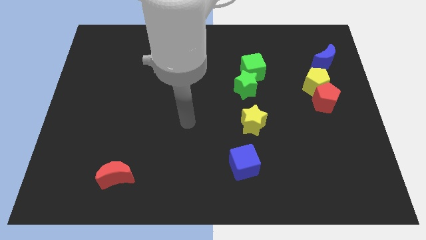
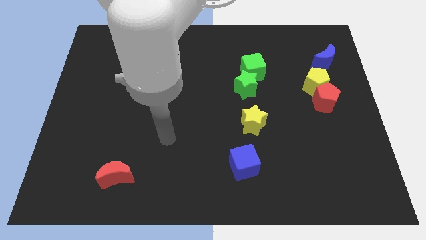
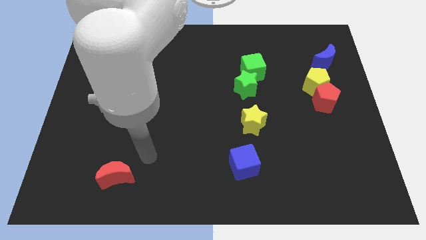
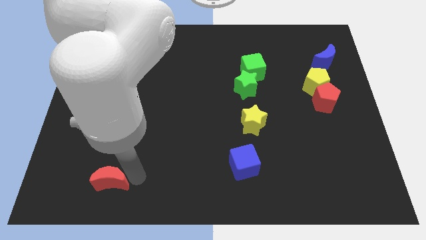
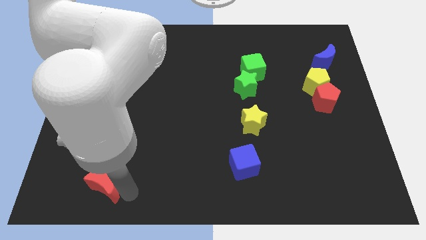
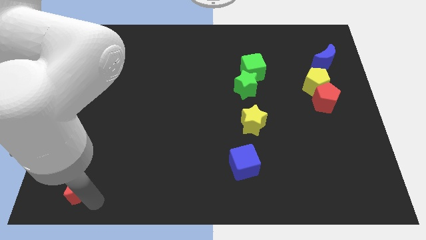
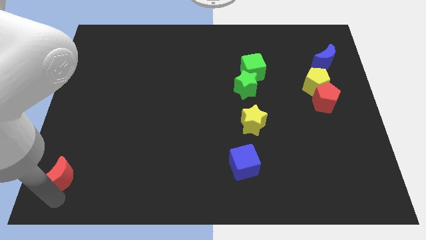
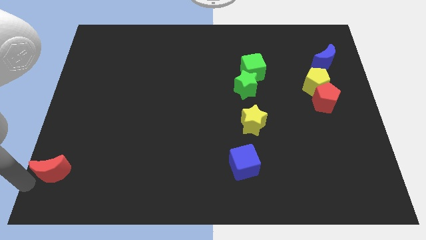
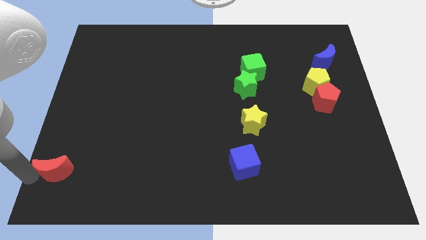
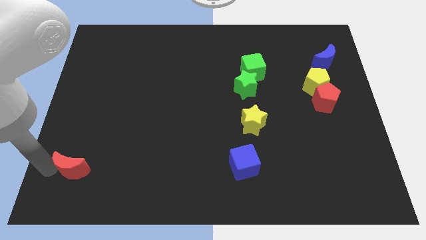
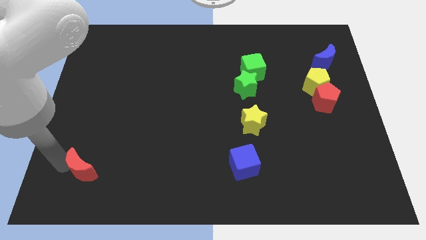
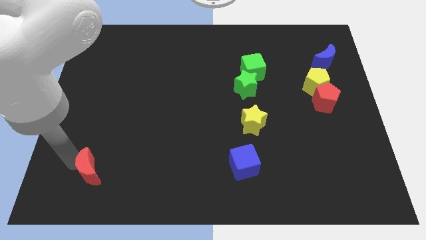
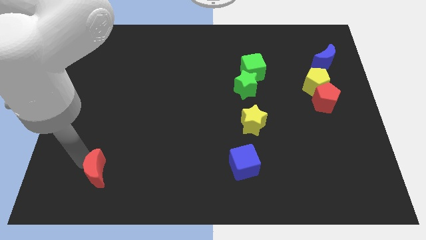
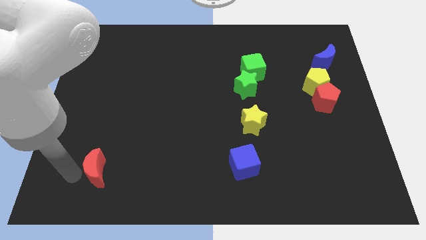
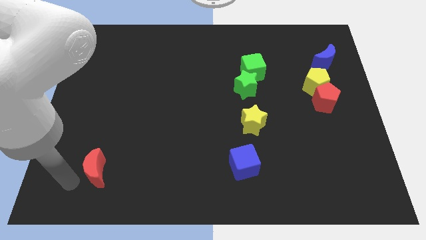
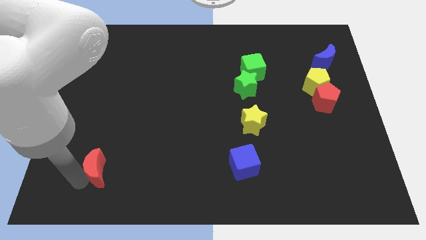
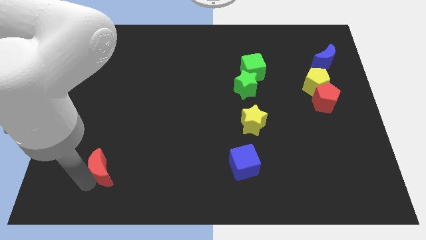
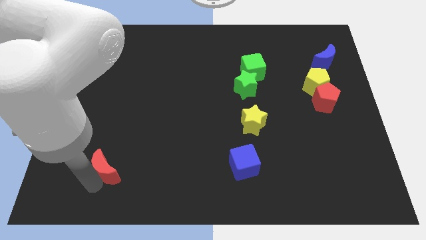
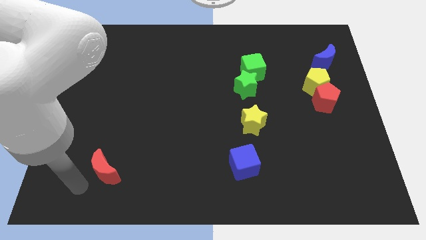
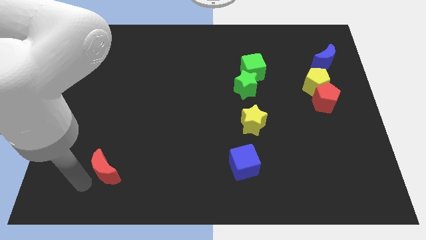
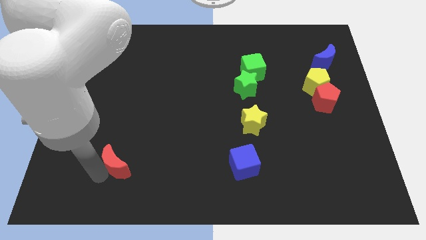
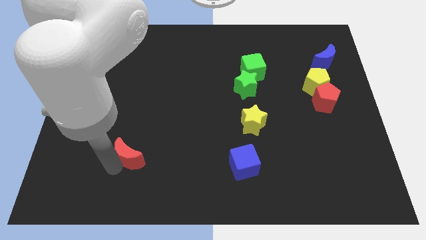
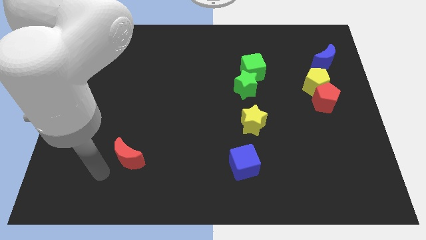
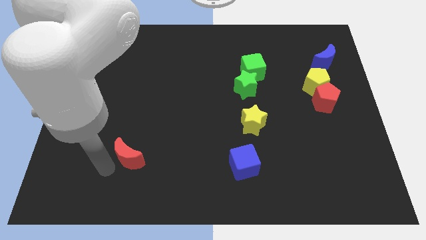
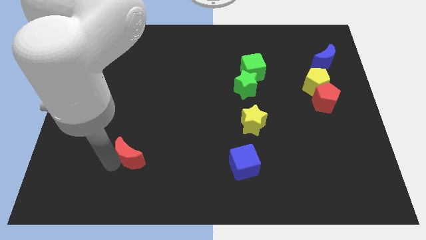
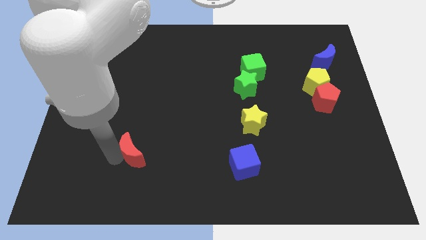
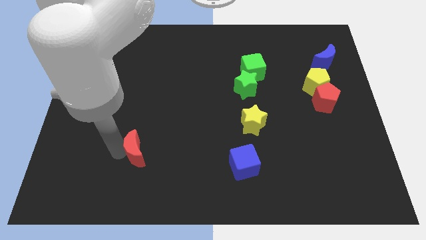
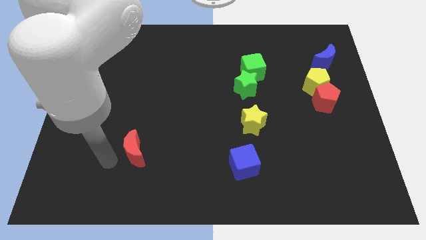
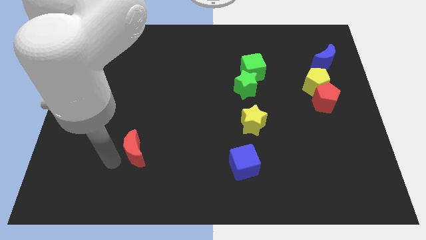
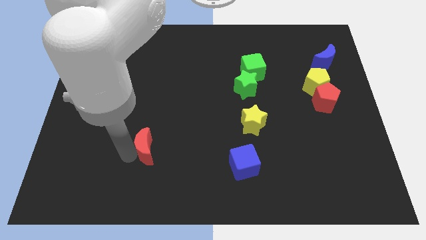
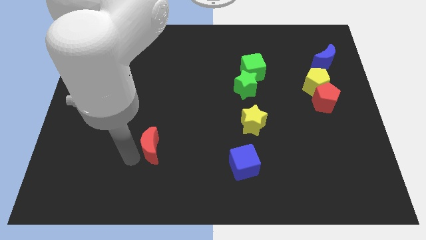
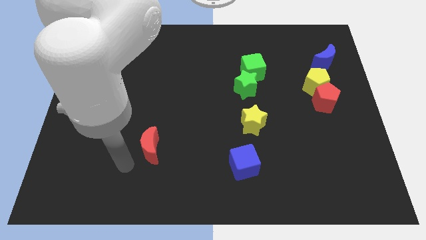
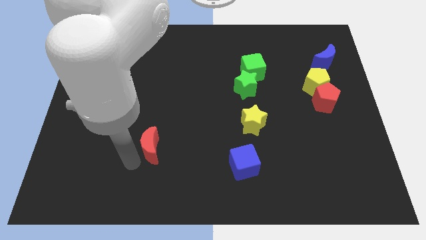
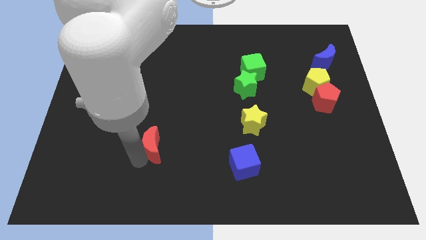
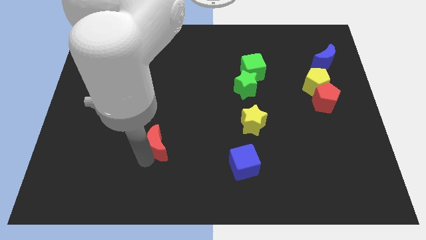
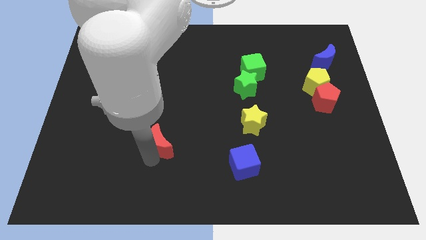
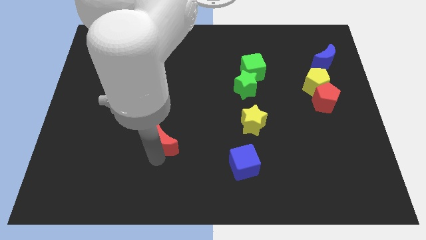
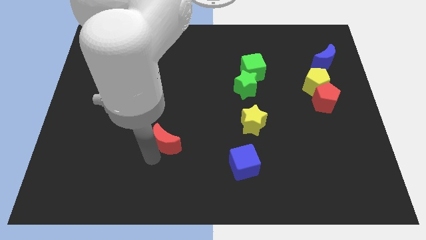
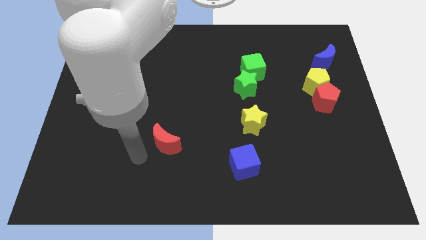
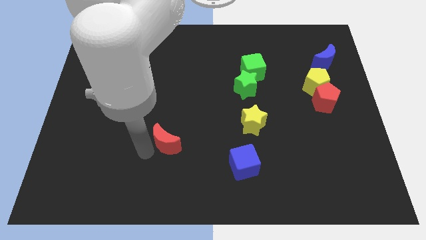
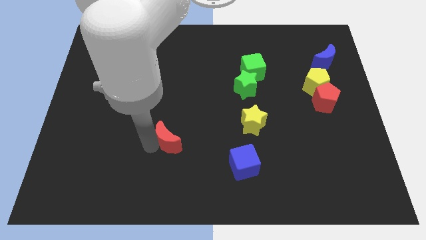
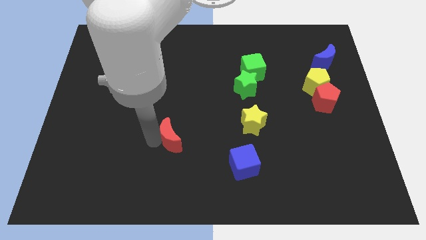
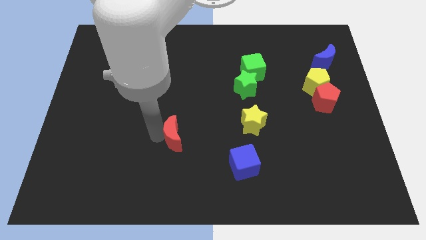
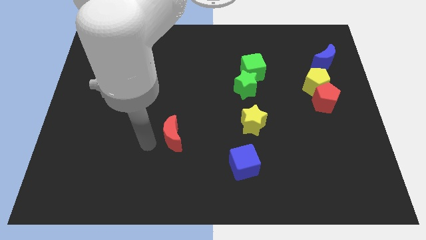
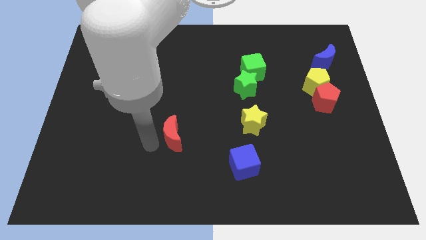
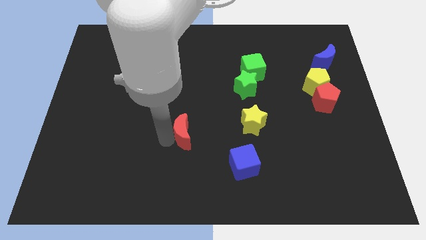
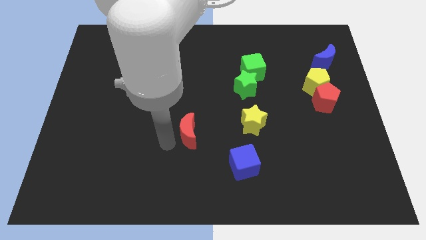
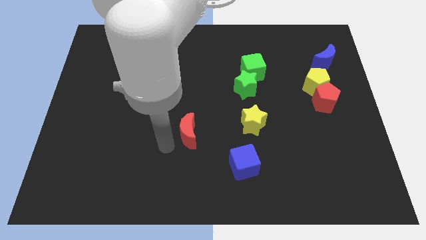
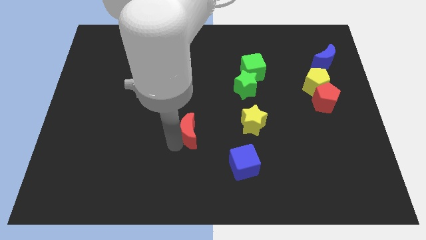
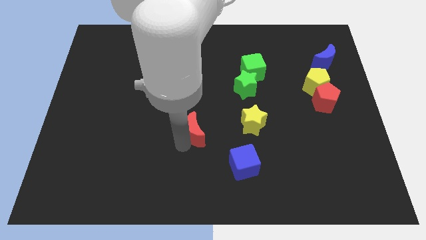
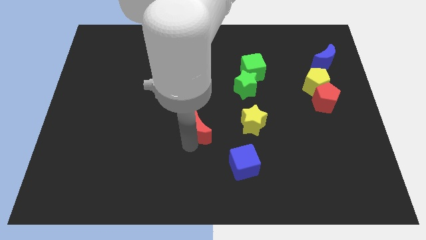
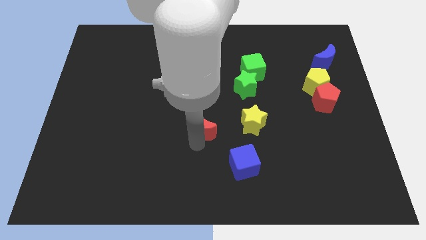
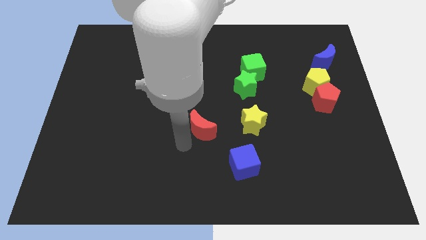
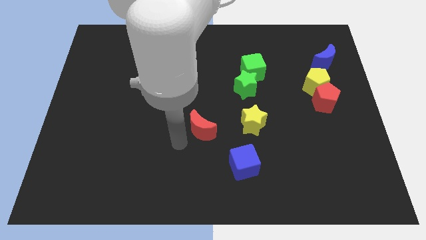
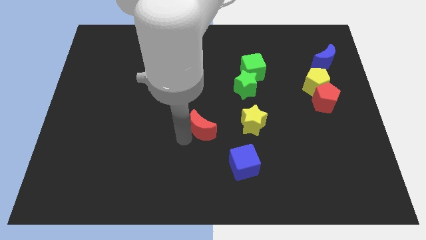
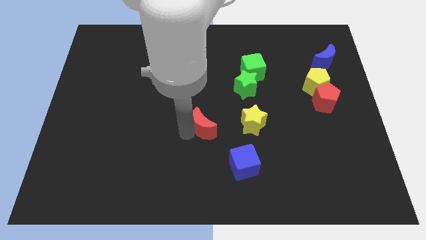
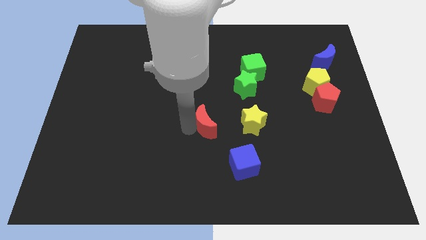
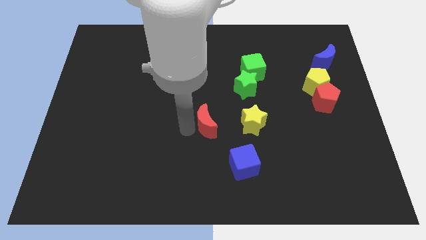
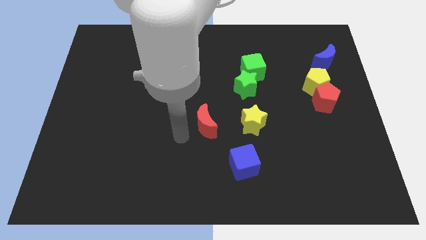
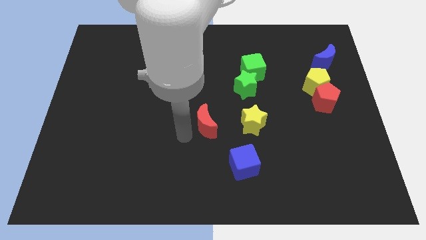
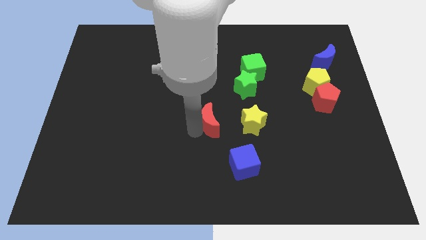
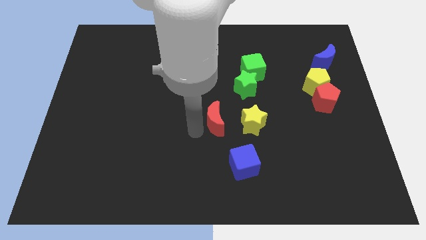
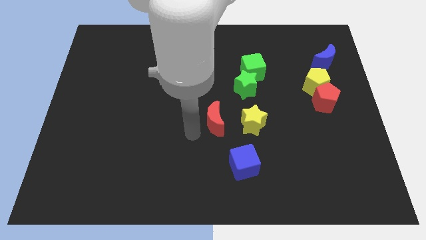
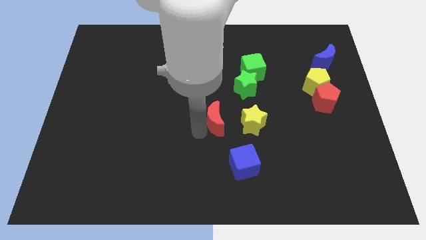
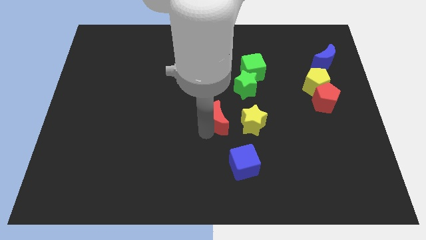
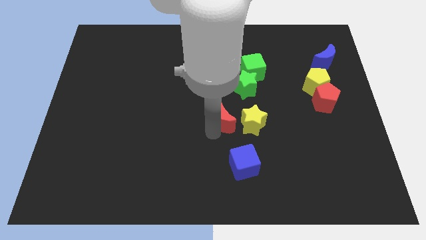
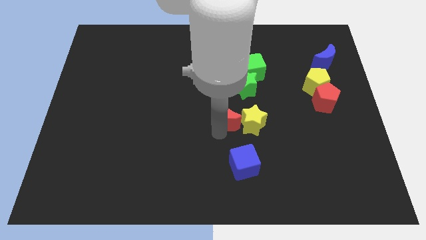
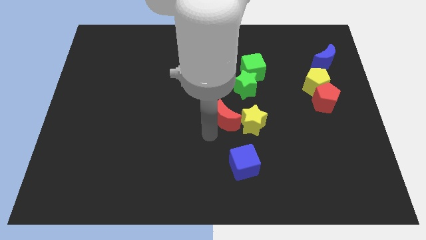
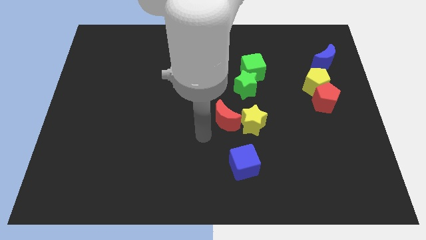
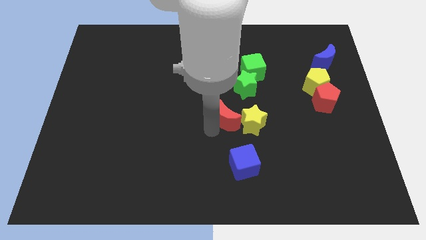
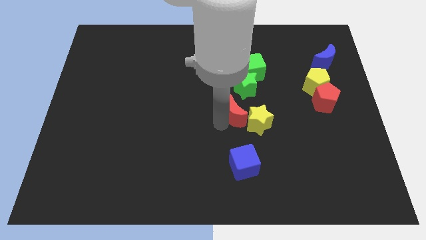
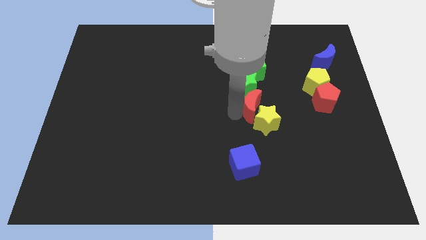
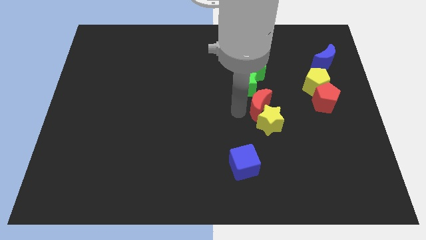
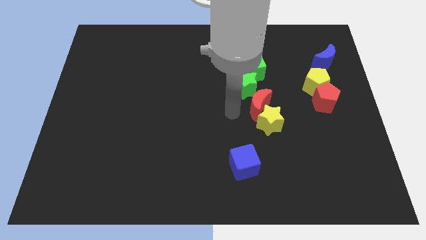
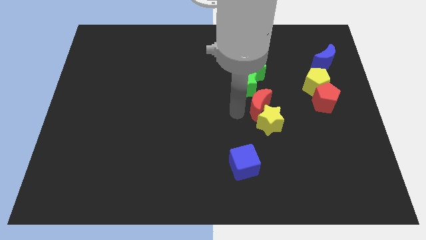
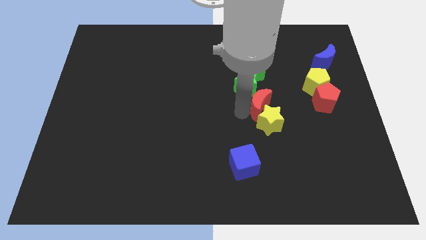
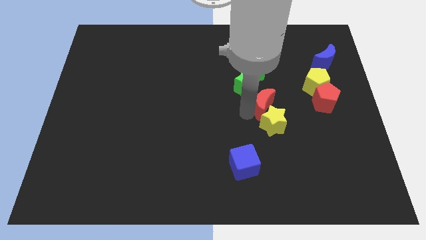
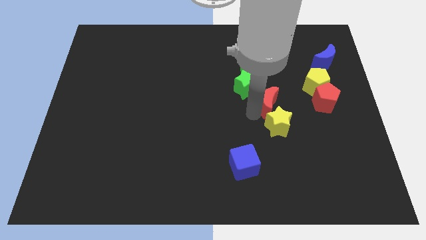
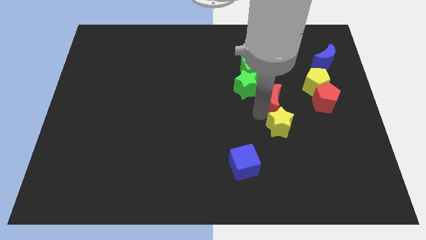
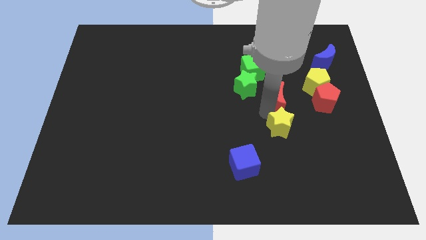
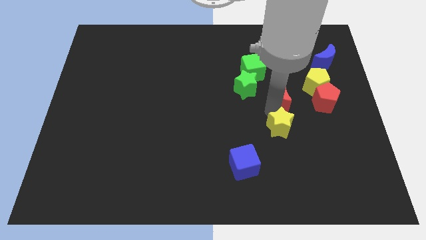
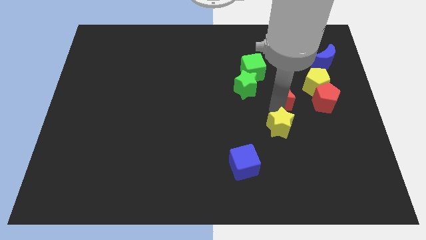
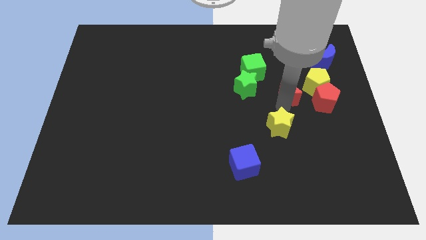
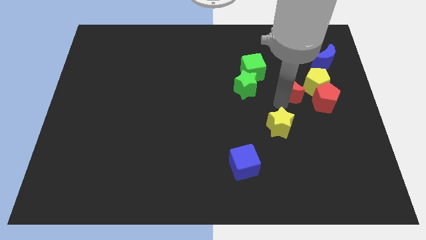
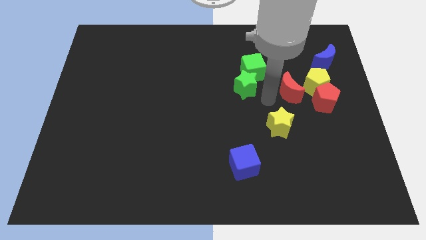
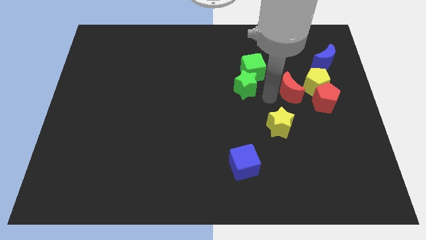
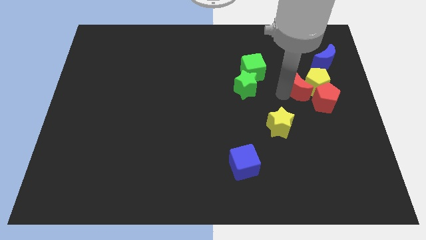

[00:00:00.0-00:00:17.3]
move the red moon close to the yellow pentagon
